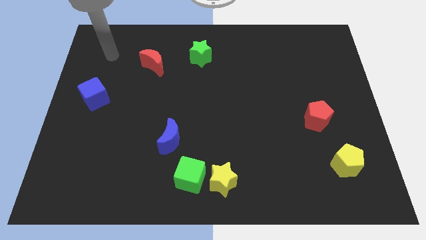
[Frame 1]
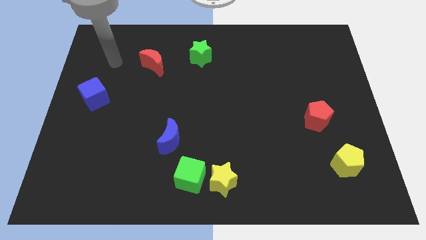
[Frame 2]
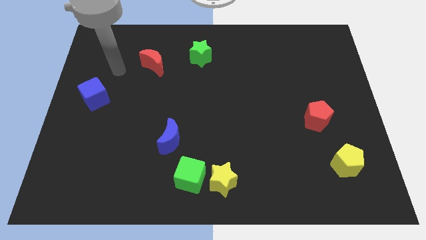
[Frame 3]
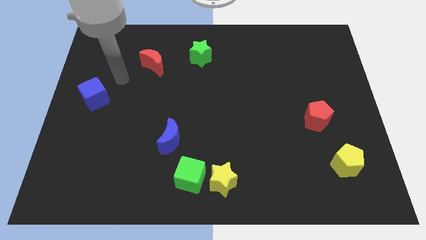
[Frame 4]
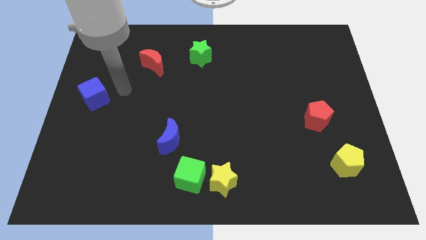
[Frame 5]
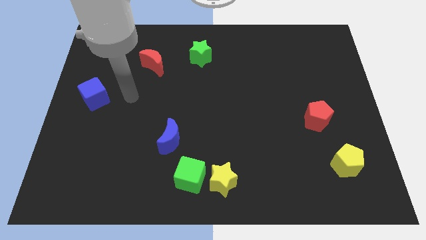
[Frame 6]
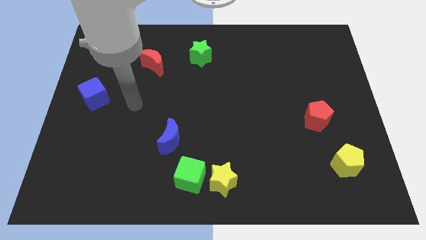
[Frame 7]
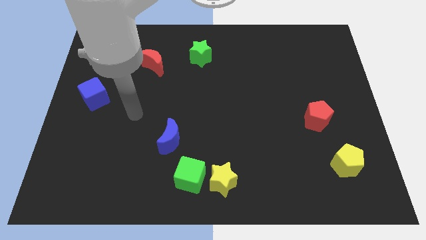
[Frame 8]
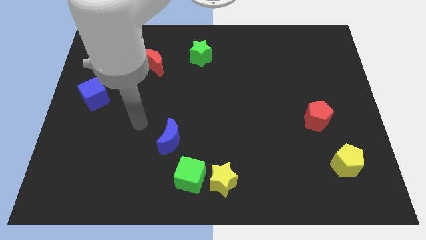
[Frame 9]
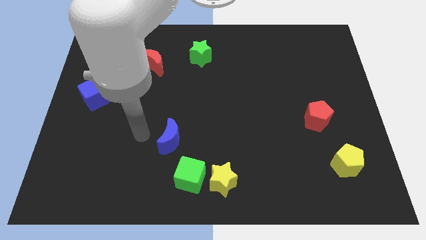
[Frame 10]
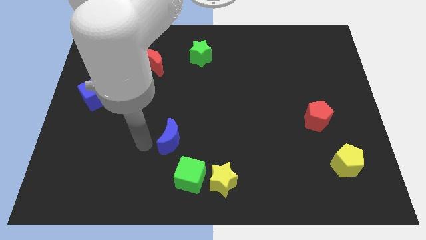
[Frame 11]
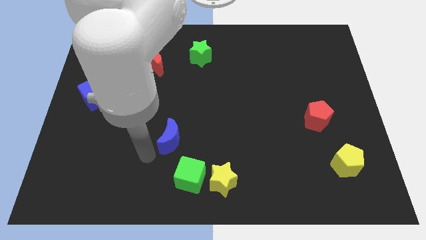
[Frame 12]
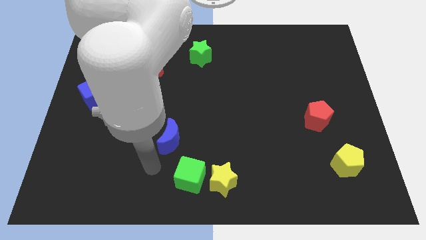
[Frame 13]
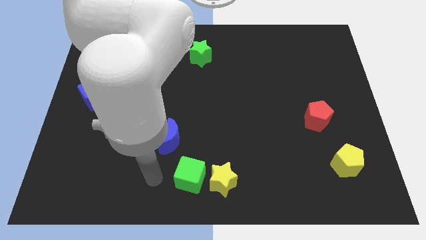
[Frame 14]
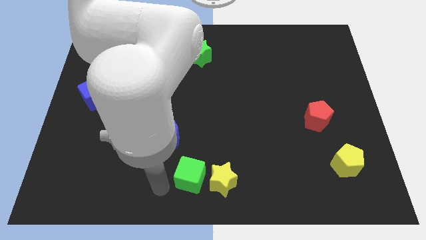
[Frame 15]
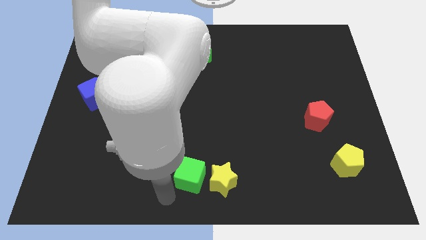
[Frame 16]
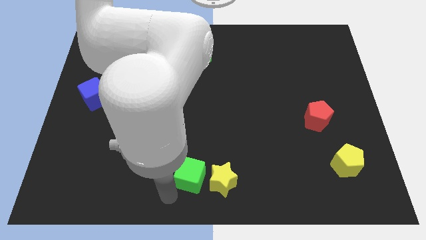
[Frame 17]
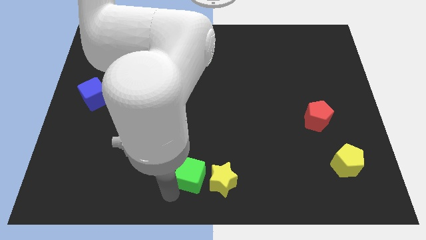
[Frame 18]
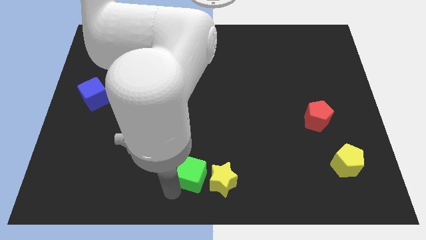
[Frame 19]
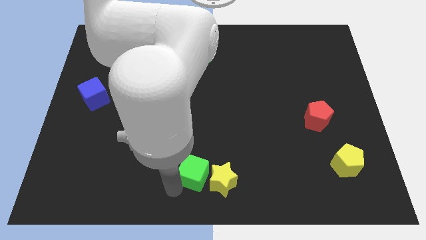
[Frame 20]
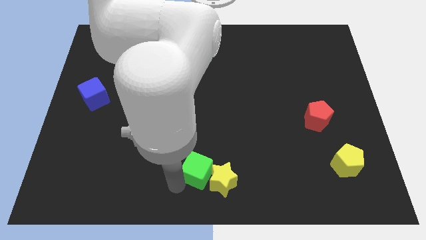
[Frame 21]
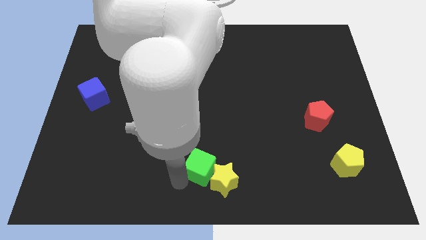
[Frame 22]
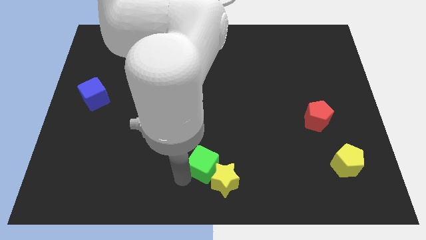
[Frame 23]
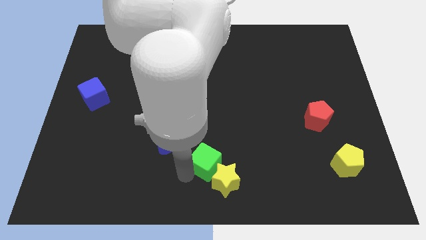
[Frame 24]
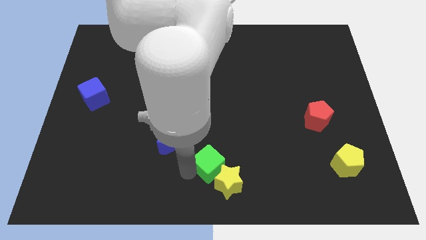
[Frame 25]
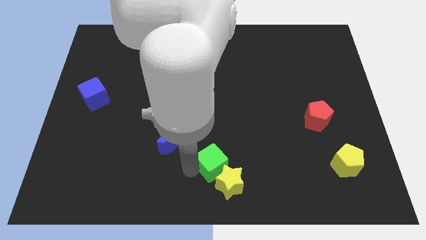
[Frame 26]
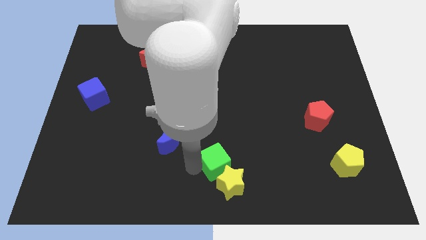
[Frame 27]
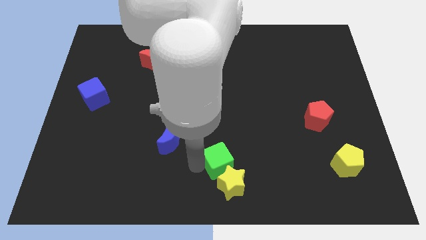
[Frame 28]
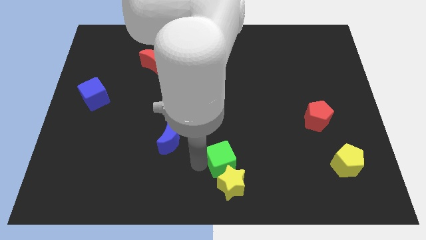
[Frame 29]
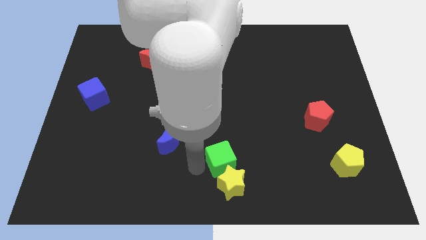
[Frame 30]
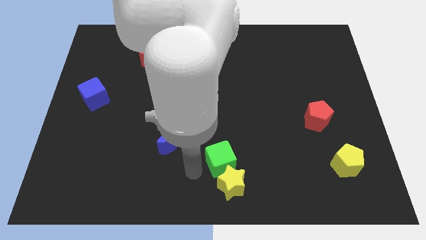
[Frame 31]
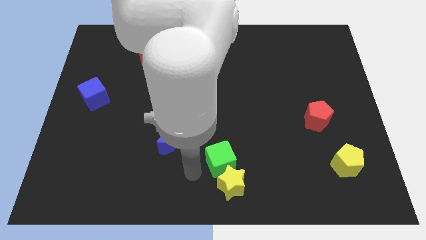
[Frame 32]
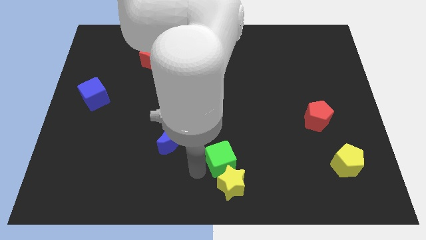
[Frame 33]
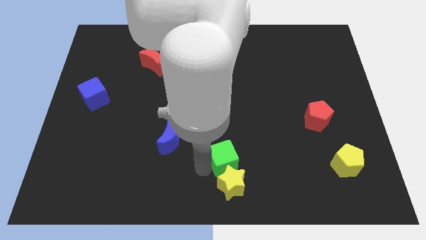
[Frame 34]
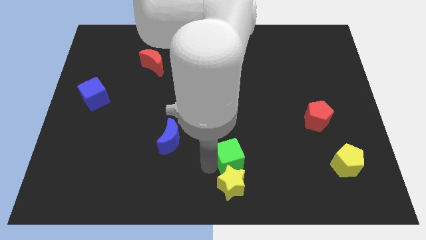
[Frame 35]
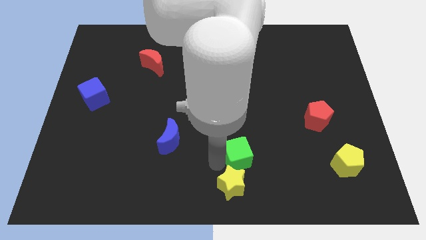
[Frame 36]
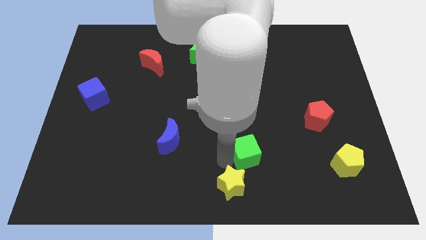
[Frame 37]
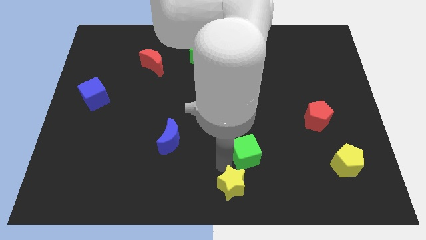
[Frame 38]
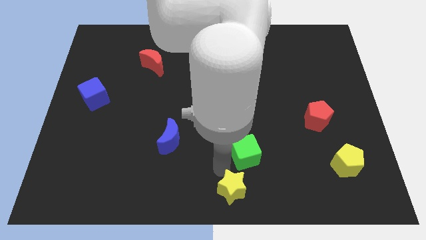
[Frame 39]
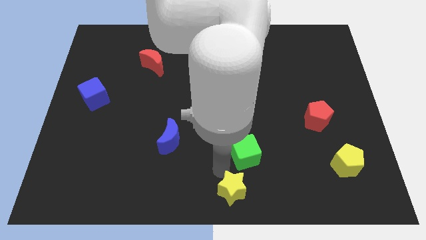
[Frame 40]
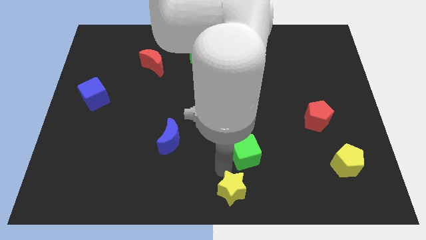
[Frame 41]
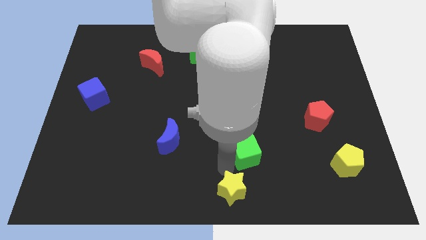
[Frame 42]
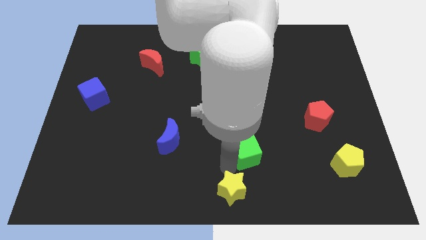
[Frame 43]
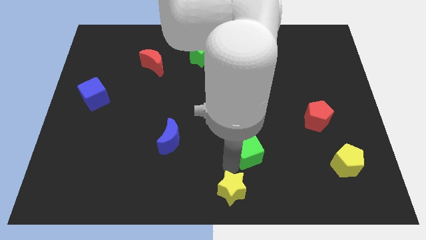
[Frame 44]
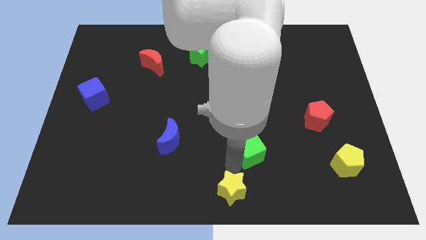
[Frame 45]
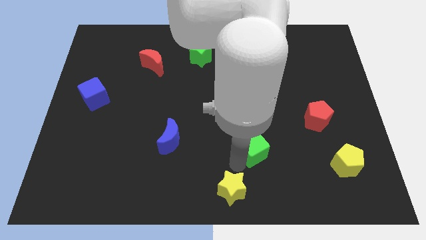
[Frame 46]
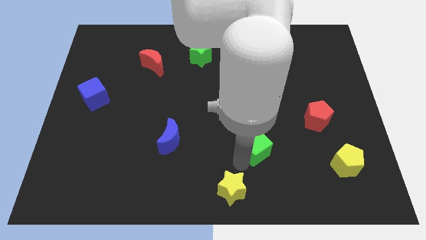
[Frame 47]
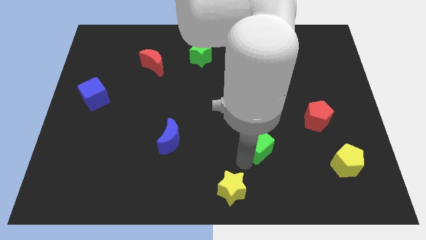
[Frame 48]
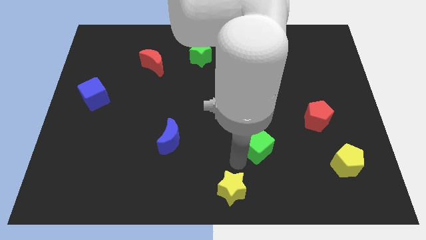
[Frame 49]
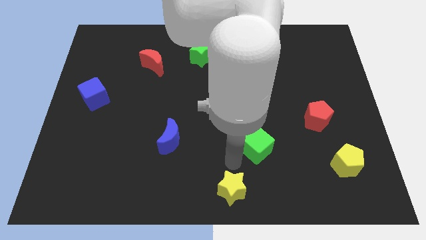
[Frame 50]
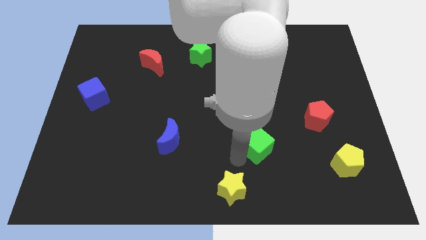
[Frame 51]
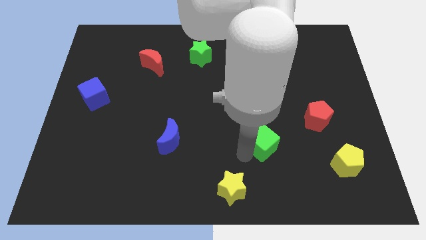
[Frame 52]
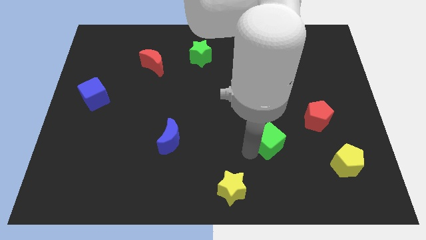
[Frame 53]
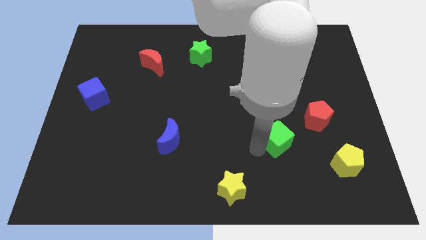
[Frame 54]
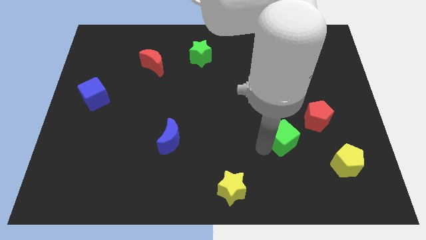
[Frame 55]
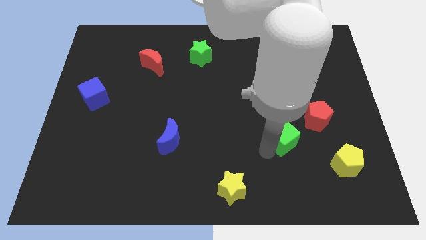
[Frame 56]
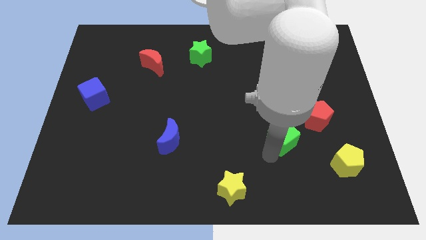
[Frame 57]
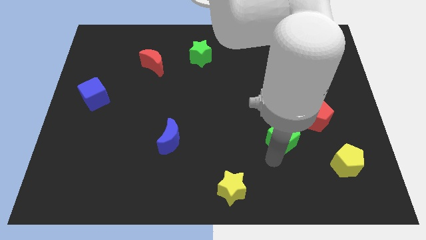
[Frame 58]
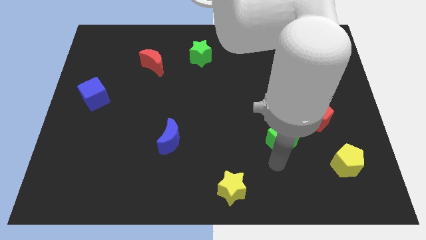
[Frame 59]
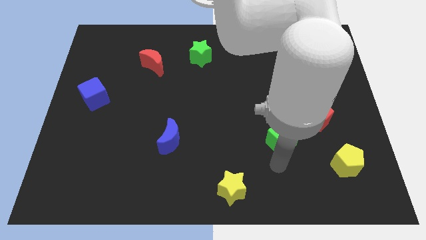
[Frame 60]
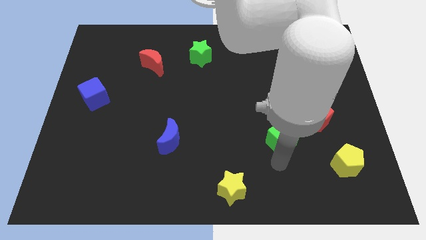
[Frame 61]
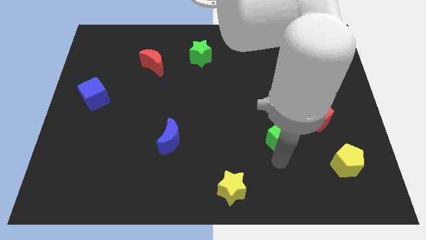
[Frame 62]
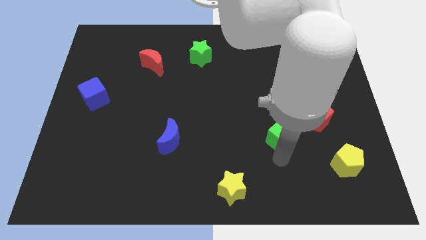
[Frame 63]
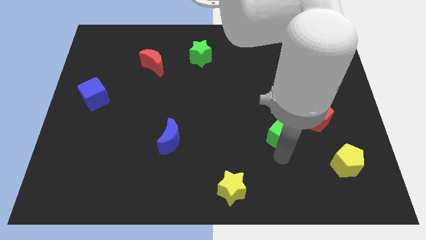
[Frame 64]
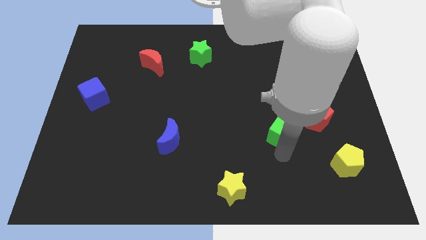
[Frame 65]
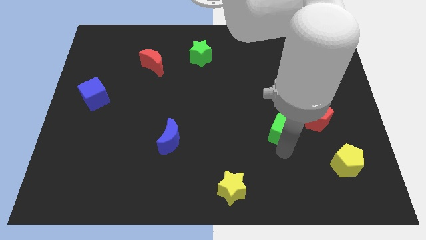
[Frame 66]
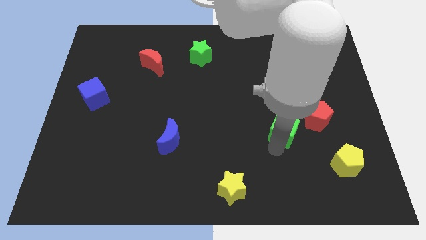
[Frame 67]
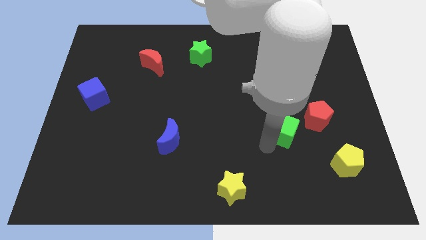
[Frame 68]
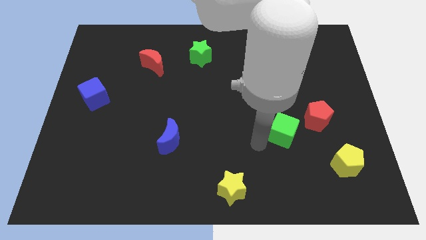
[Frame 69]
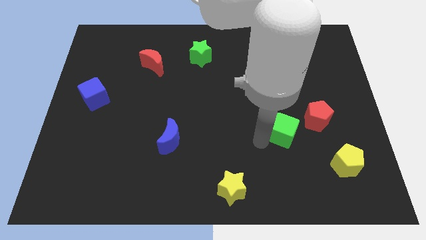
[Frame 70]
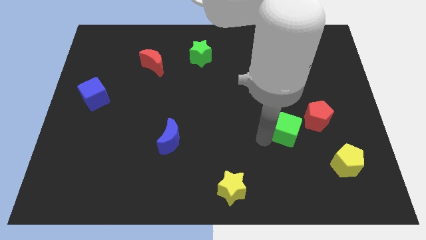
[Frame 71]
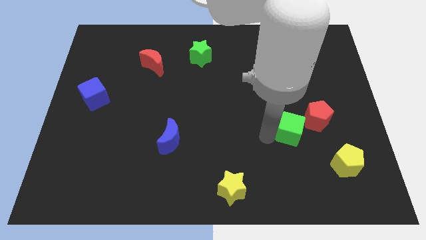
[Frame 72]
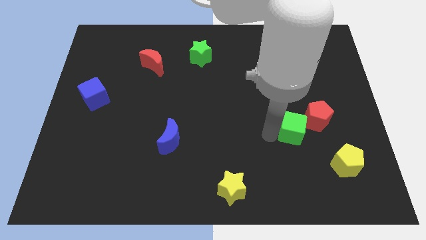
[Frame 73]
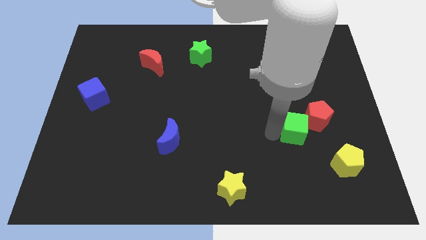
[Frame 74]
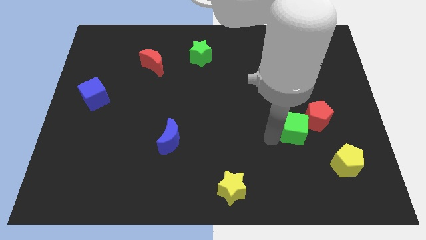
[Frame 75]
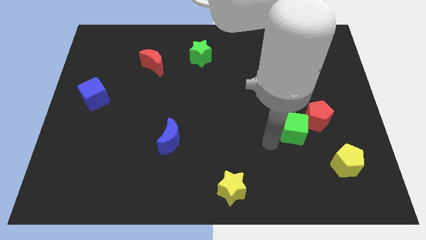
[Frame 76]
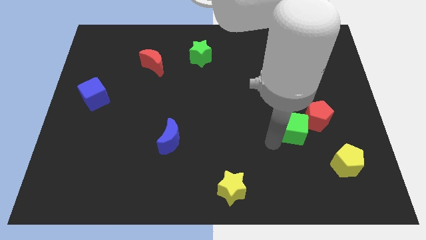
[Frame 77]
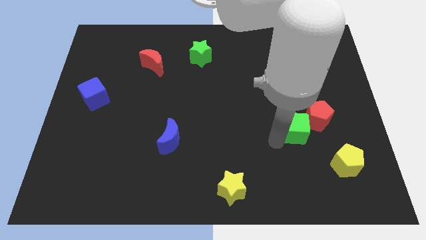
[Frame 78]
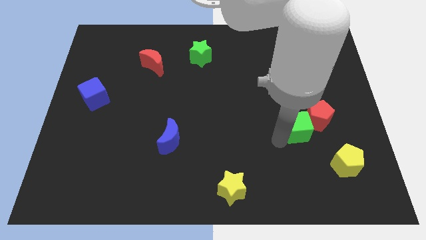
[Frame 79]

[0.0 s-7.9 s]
push the green cube close to the red pentagon
